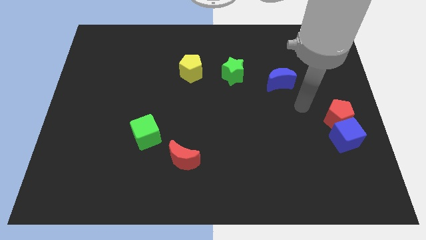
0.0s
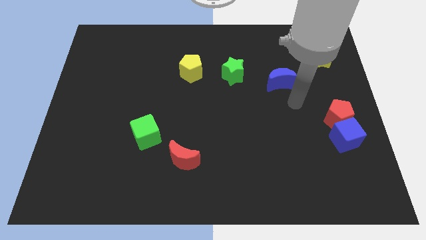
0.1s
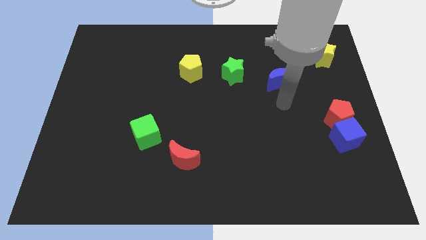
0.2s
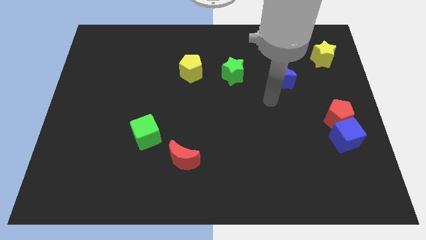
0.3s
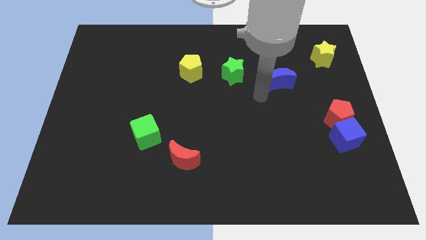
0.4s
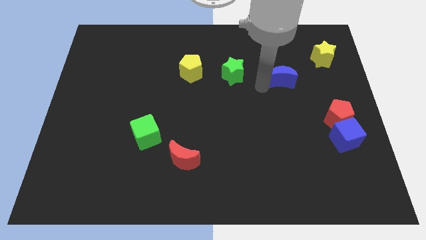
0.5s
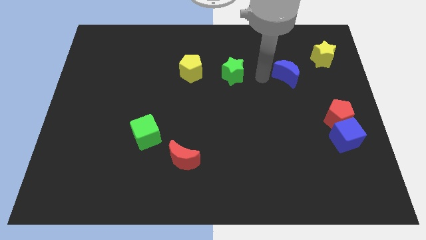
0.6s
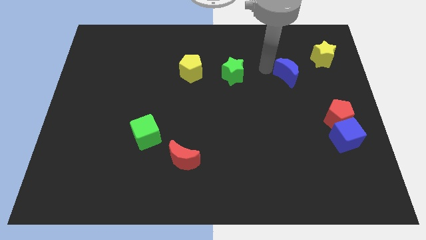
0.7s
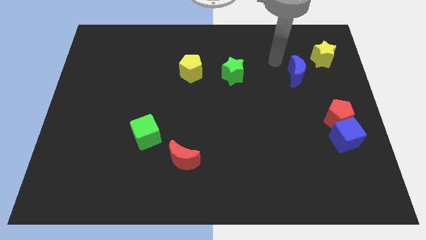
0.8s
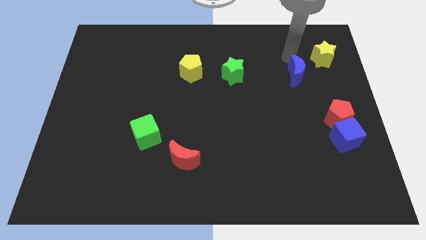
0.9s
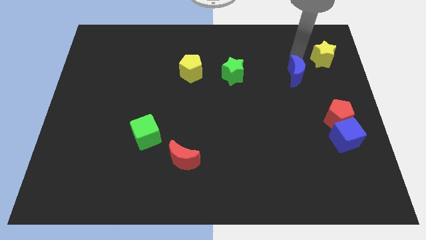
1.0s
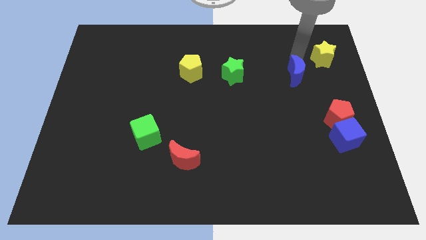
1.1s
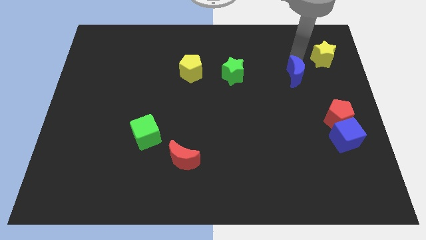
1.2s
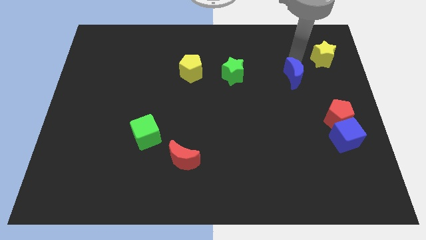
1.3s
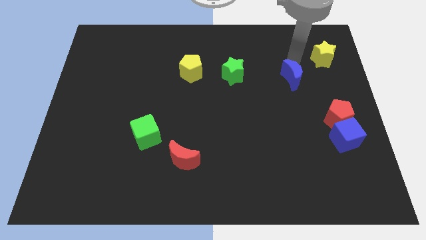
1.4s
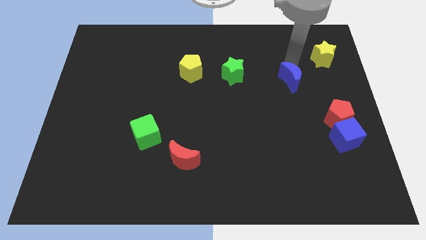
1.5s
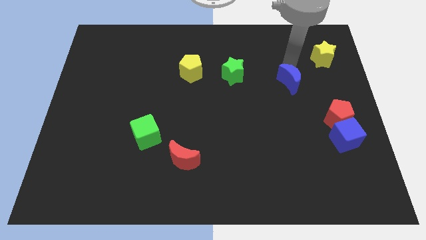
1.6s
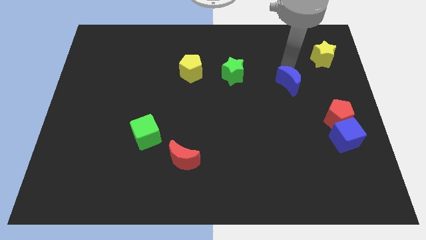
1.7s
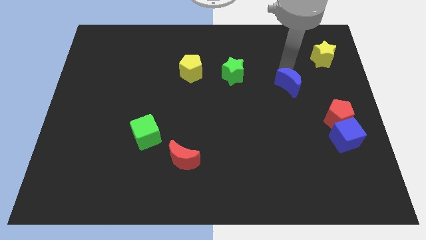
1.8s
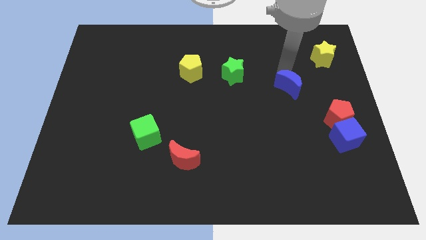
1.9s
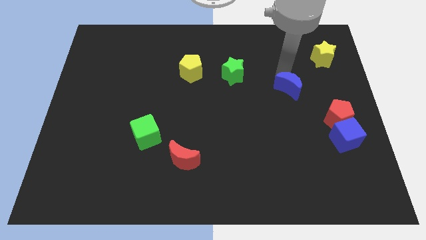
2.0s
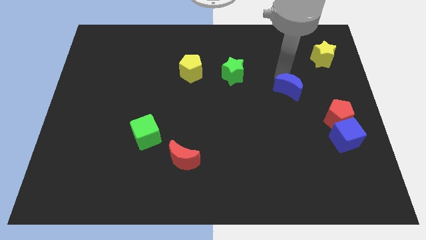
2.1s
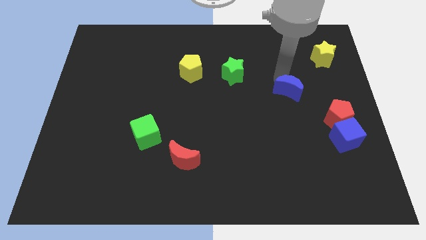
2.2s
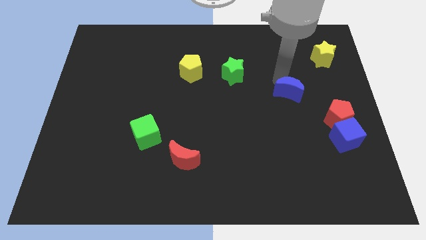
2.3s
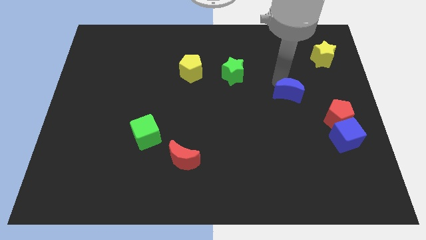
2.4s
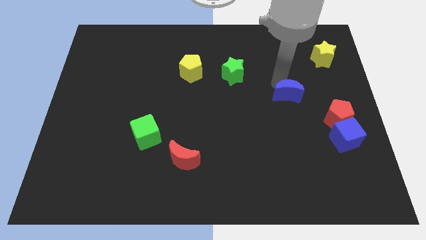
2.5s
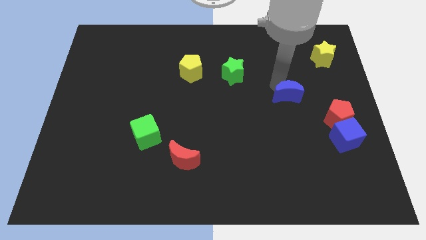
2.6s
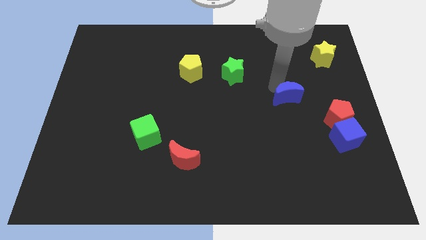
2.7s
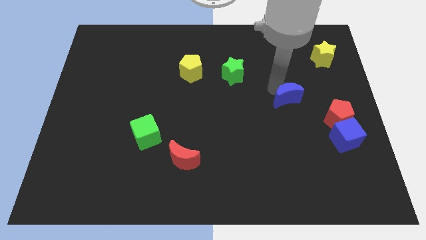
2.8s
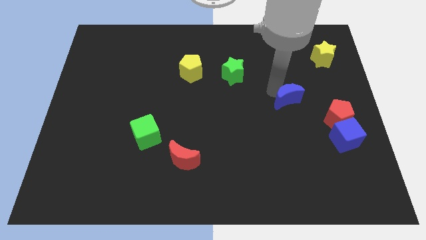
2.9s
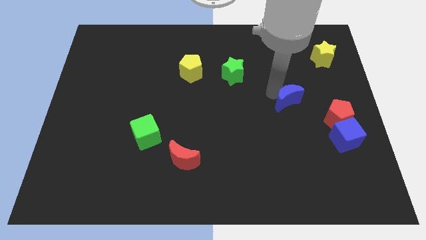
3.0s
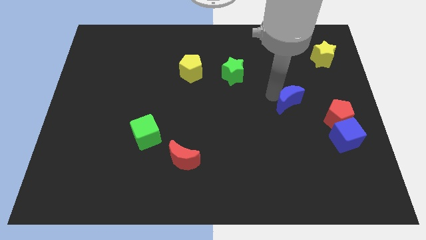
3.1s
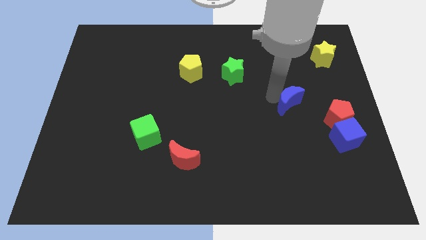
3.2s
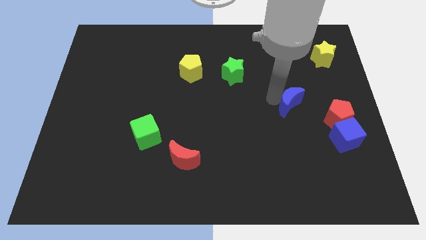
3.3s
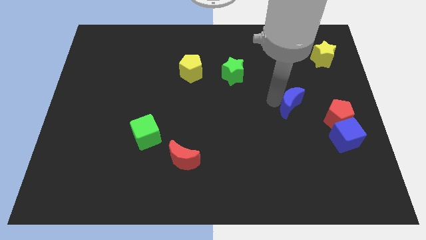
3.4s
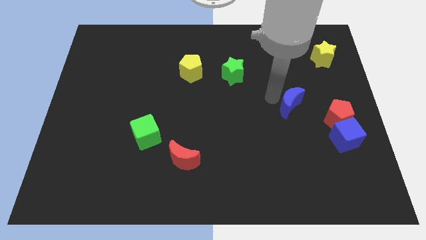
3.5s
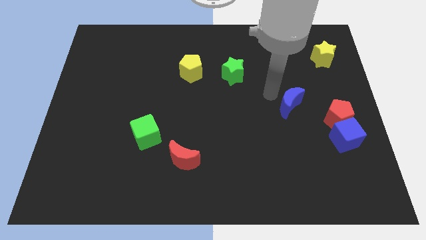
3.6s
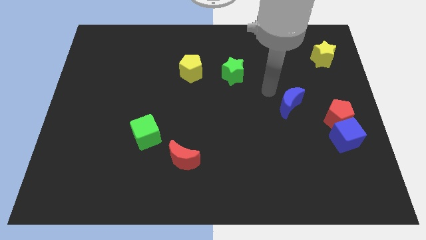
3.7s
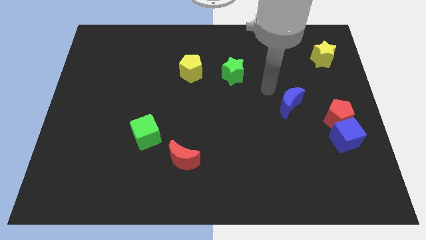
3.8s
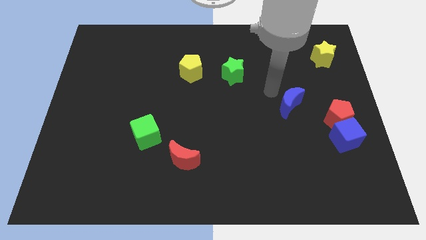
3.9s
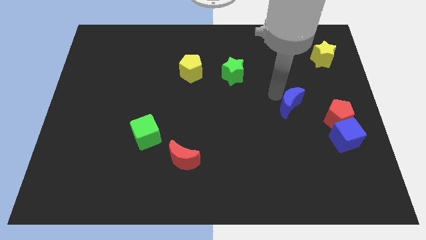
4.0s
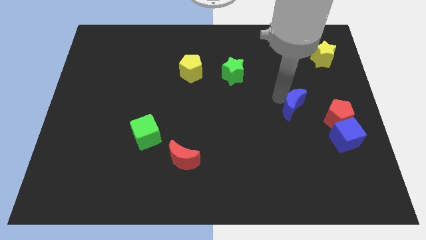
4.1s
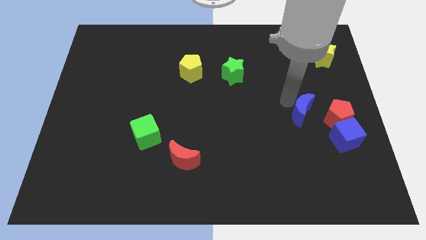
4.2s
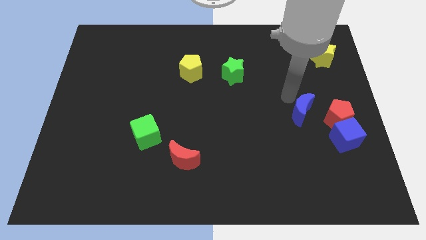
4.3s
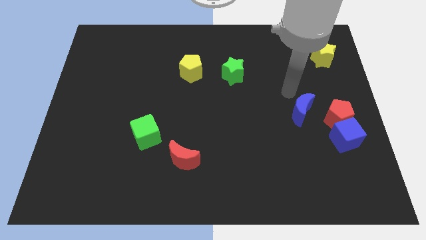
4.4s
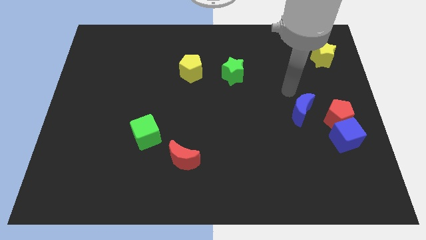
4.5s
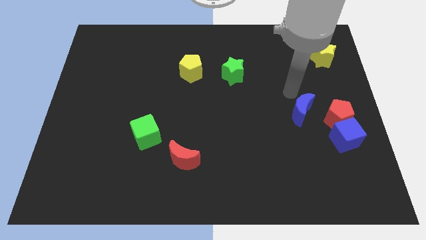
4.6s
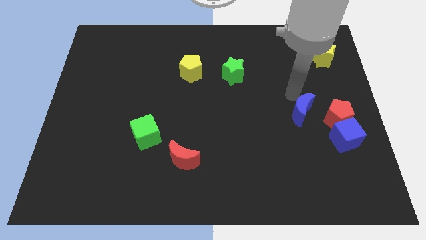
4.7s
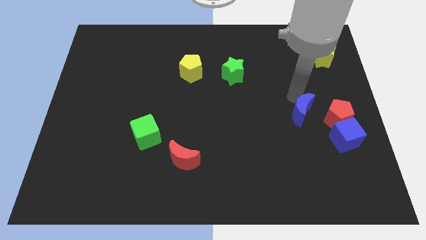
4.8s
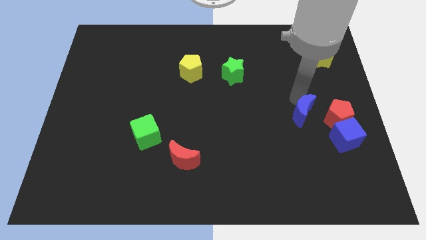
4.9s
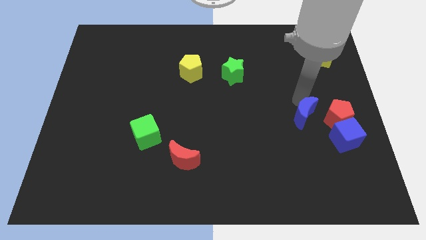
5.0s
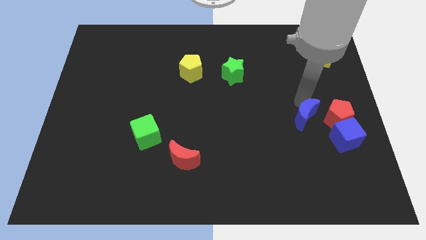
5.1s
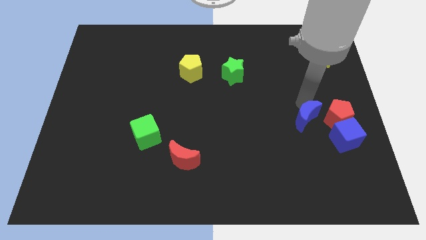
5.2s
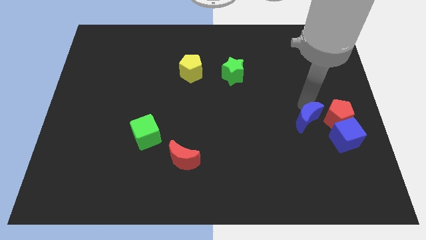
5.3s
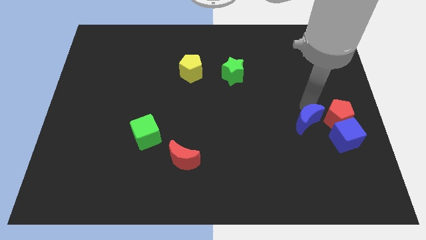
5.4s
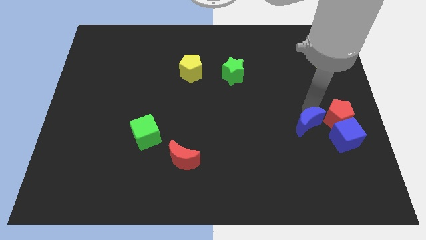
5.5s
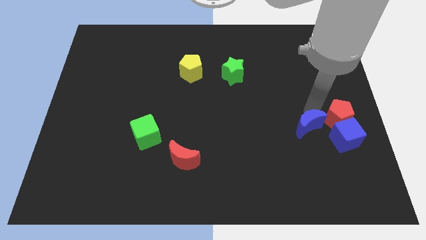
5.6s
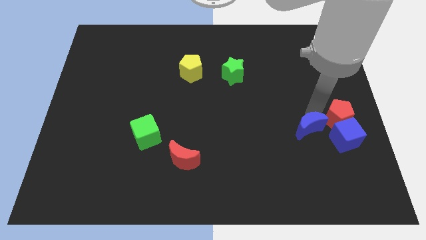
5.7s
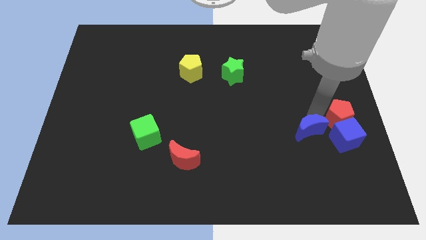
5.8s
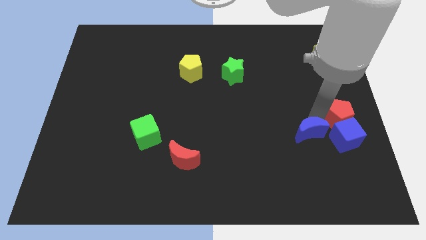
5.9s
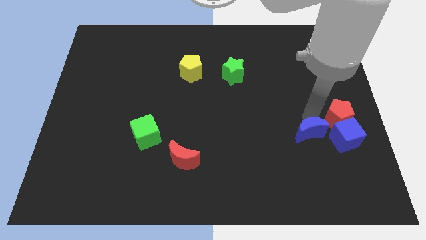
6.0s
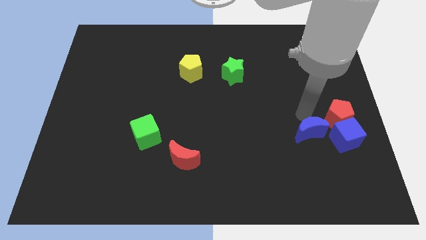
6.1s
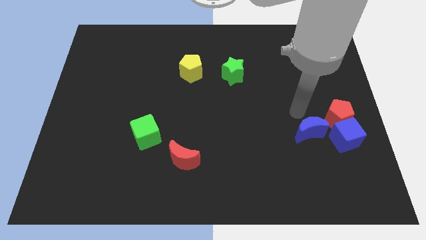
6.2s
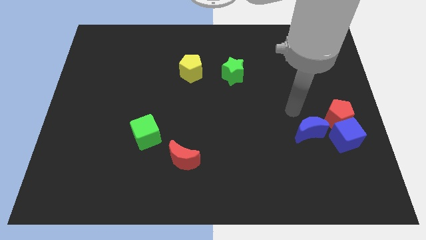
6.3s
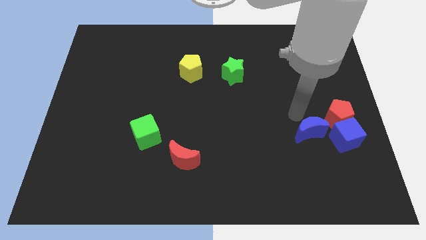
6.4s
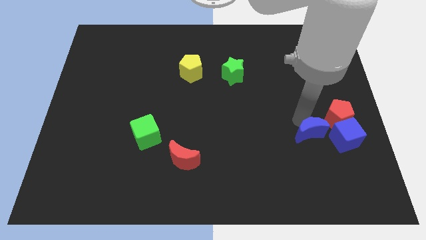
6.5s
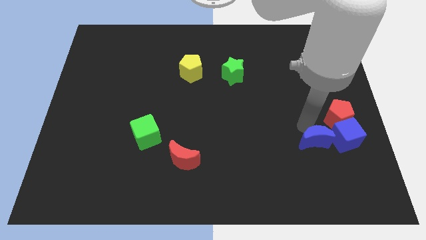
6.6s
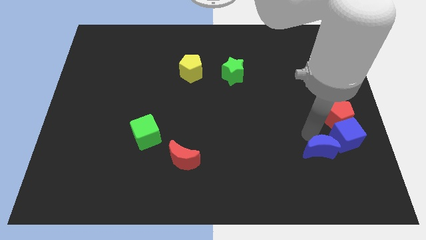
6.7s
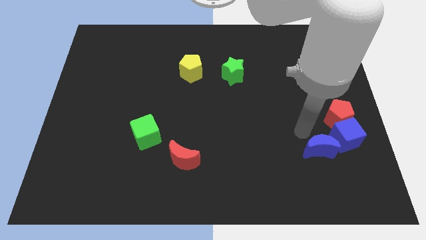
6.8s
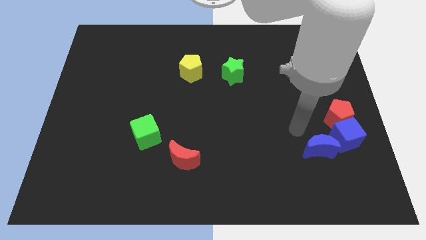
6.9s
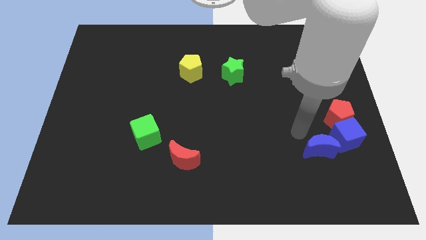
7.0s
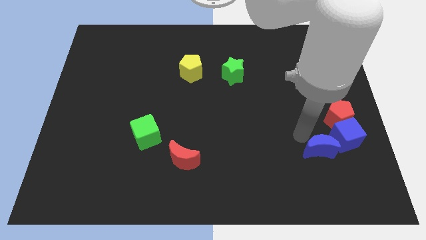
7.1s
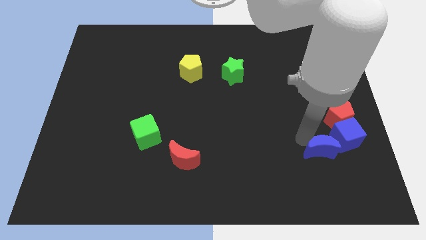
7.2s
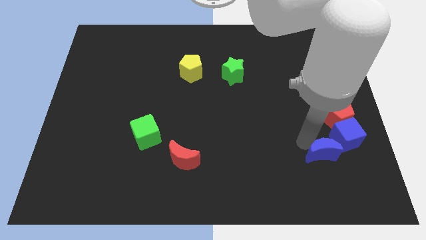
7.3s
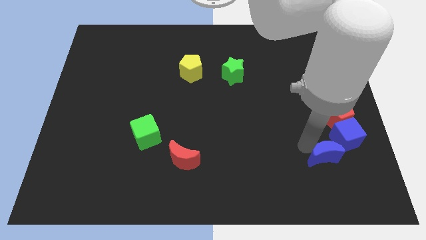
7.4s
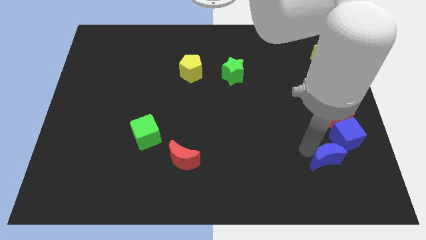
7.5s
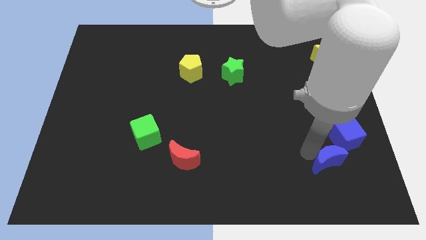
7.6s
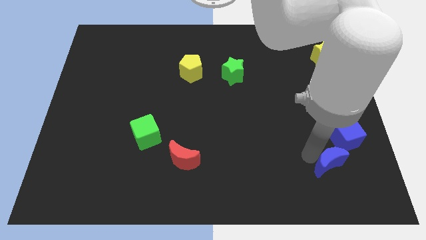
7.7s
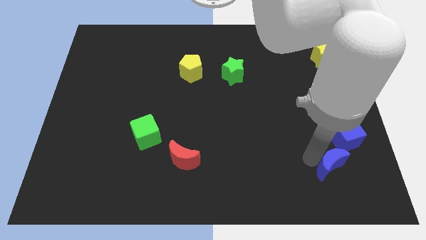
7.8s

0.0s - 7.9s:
put the blue moon below the blue cube
